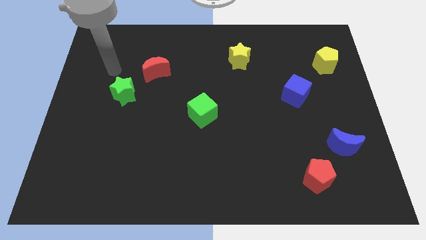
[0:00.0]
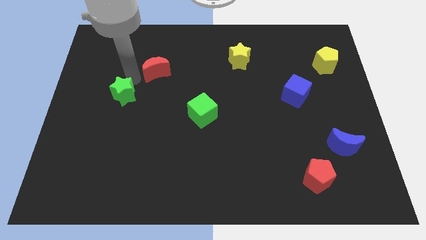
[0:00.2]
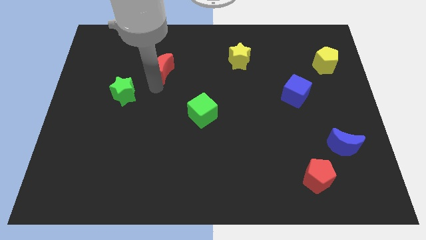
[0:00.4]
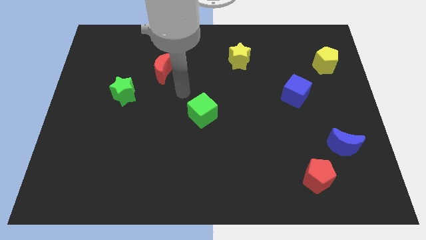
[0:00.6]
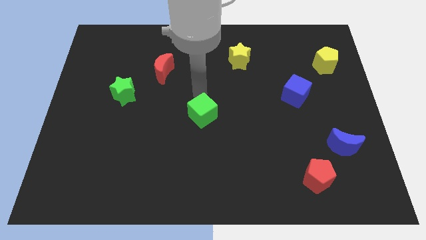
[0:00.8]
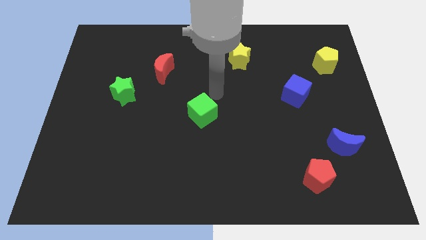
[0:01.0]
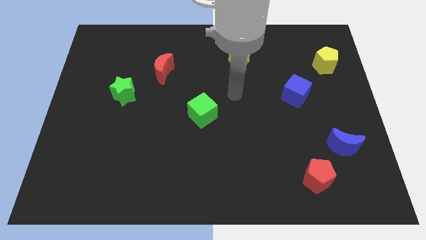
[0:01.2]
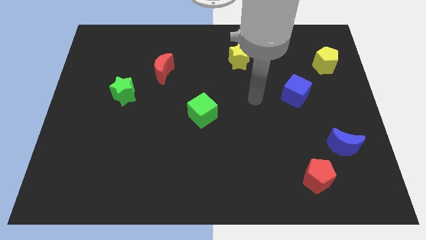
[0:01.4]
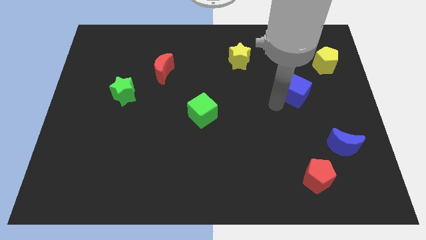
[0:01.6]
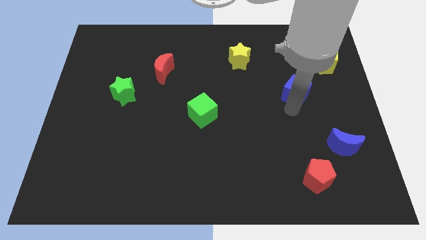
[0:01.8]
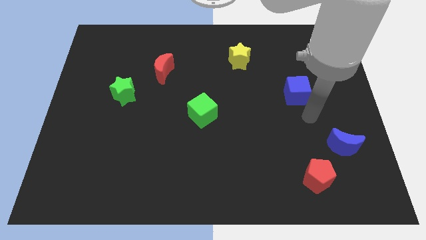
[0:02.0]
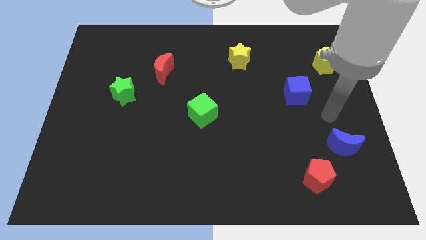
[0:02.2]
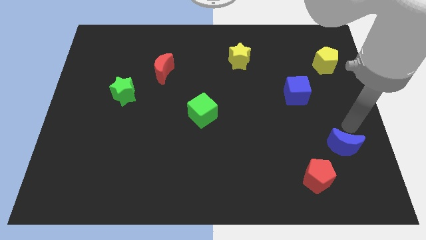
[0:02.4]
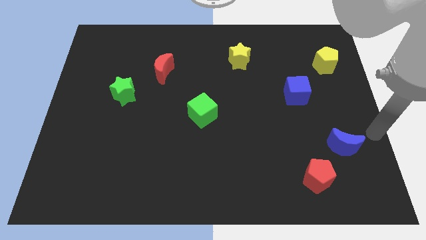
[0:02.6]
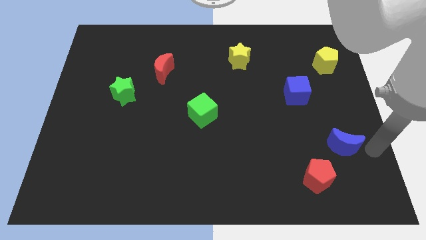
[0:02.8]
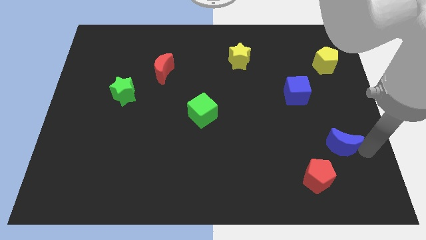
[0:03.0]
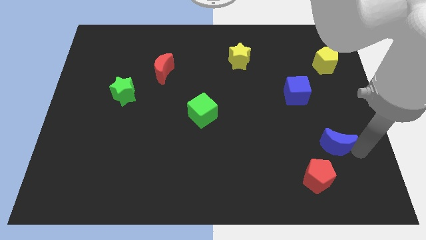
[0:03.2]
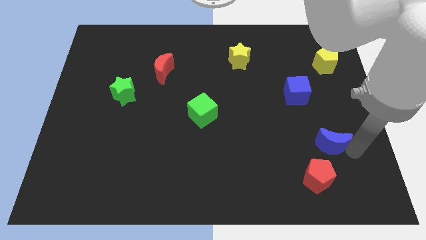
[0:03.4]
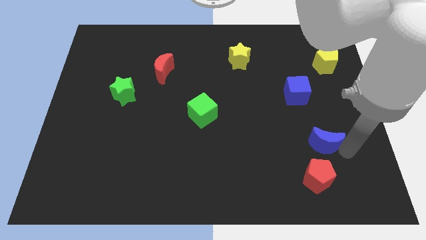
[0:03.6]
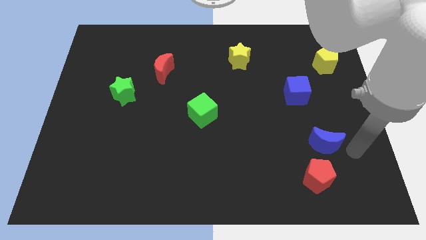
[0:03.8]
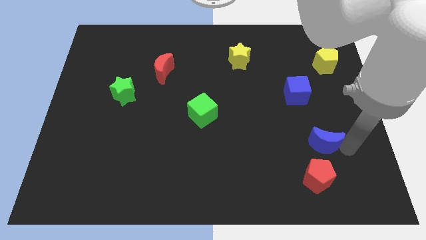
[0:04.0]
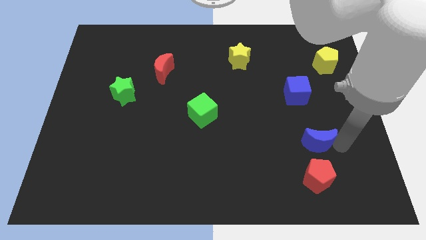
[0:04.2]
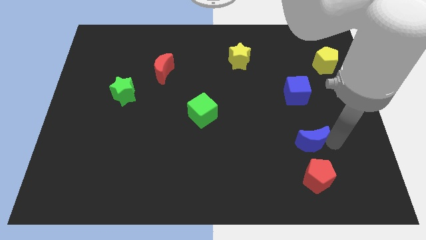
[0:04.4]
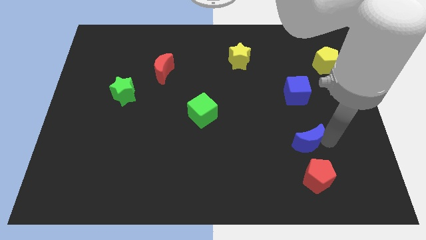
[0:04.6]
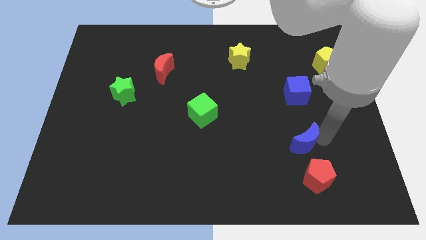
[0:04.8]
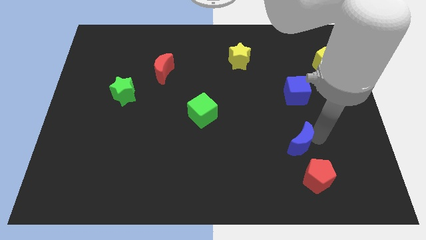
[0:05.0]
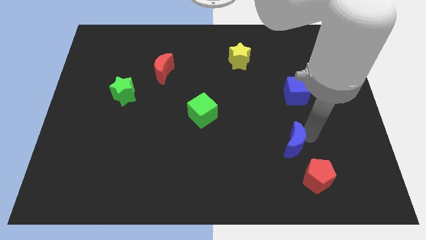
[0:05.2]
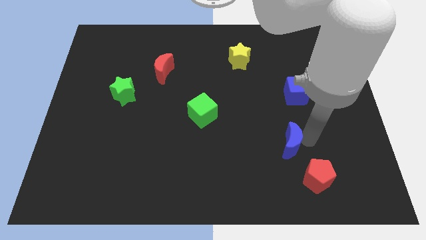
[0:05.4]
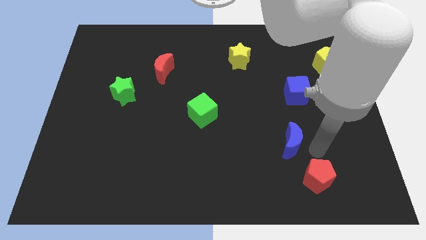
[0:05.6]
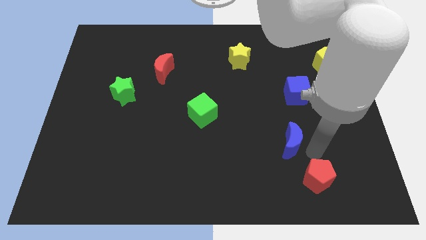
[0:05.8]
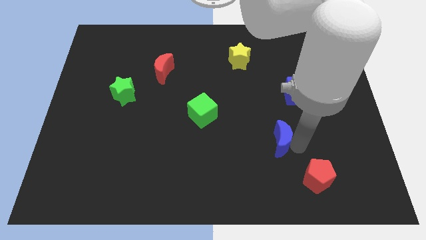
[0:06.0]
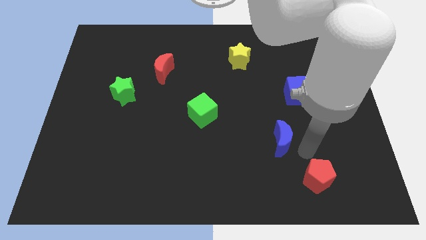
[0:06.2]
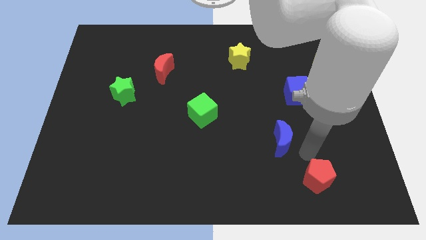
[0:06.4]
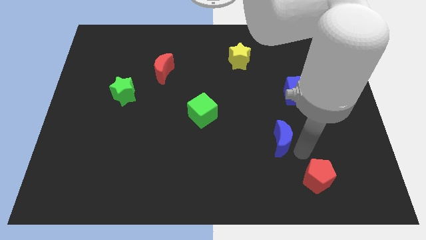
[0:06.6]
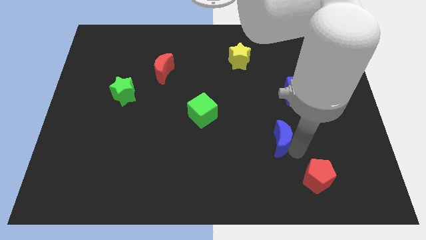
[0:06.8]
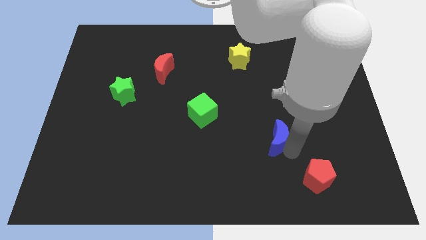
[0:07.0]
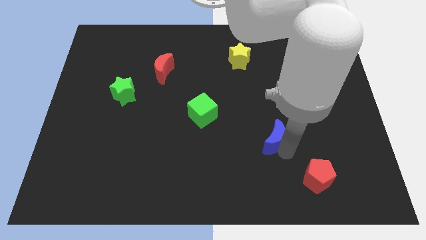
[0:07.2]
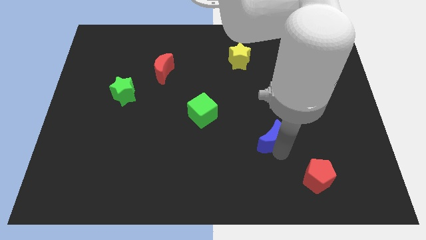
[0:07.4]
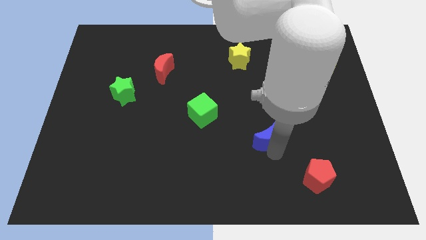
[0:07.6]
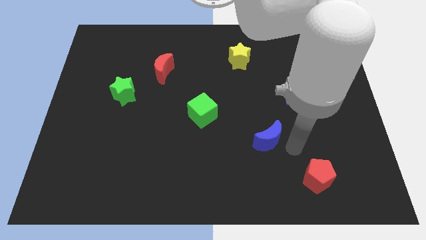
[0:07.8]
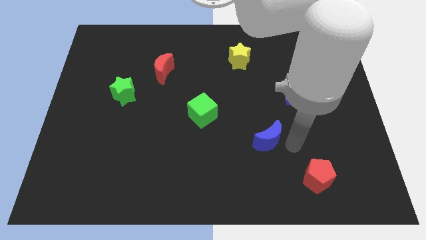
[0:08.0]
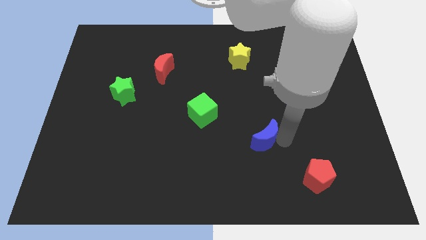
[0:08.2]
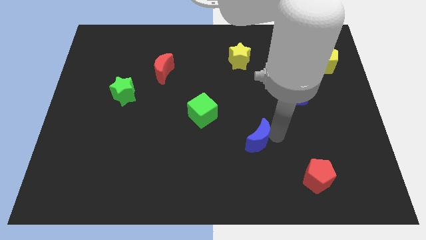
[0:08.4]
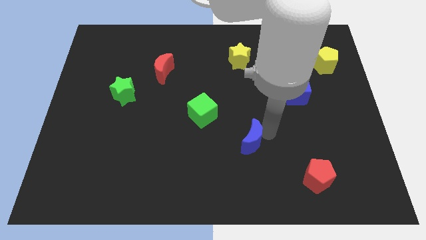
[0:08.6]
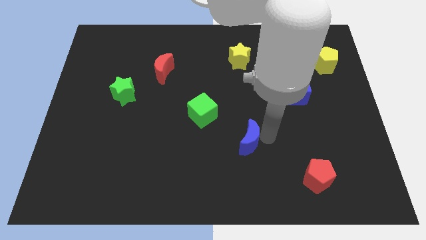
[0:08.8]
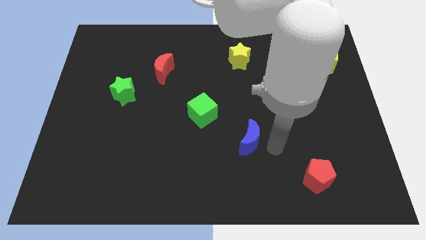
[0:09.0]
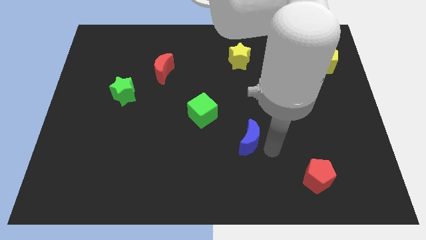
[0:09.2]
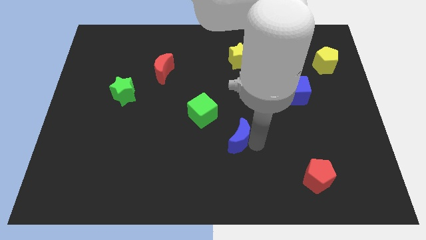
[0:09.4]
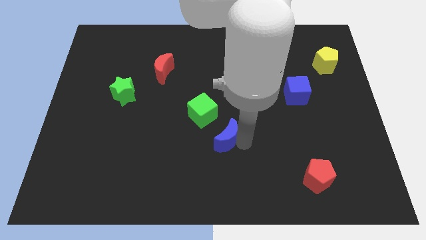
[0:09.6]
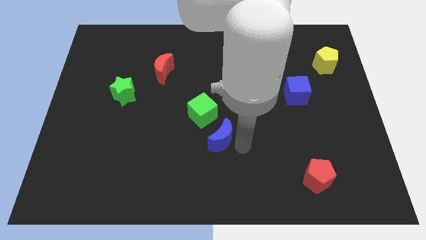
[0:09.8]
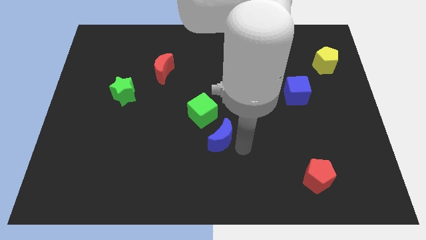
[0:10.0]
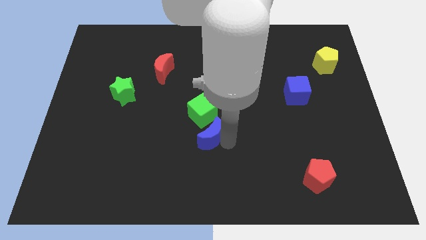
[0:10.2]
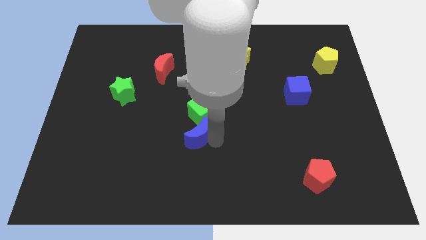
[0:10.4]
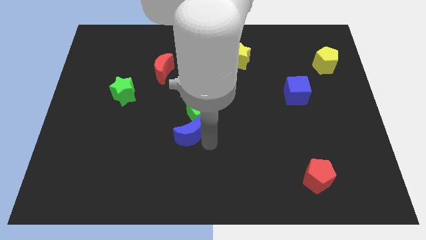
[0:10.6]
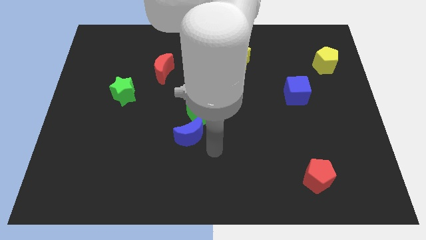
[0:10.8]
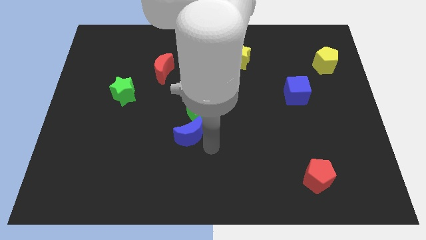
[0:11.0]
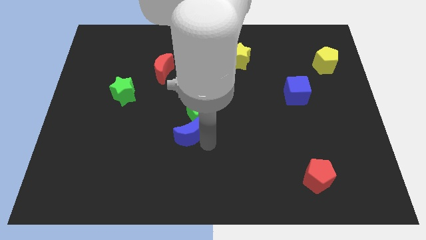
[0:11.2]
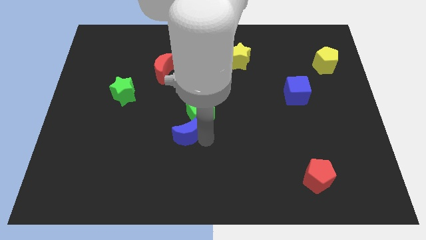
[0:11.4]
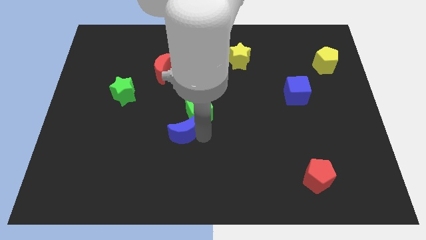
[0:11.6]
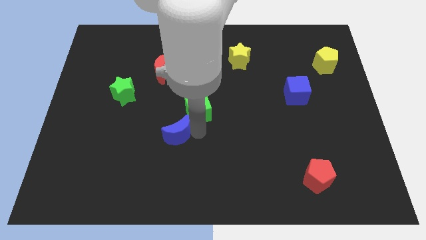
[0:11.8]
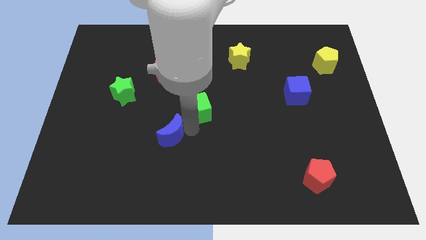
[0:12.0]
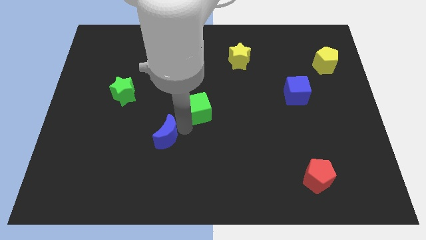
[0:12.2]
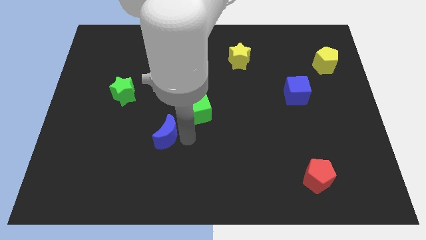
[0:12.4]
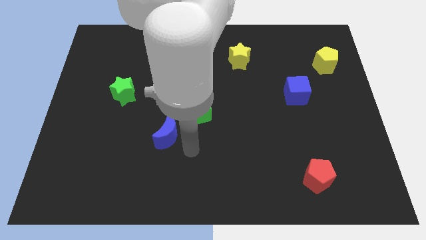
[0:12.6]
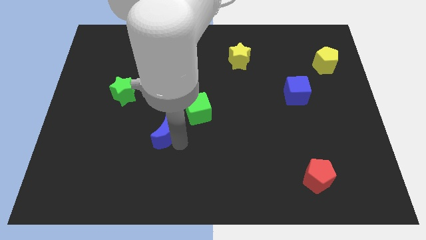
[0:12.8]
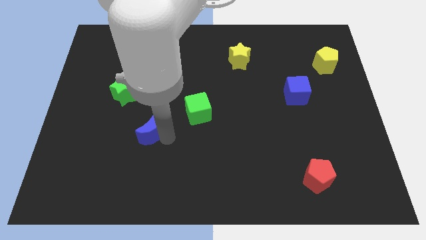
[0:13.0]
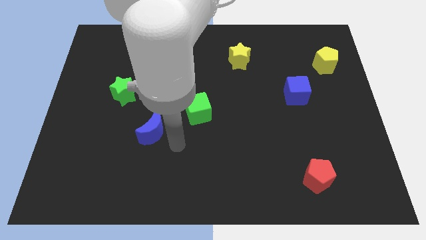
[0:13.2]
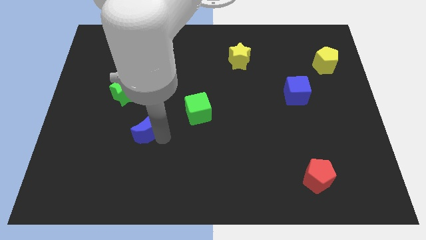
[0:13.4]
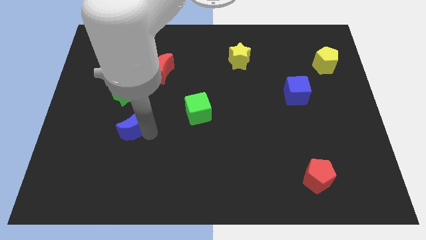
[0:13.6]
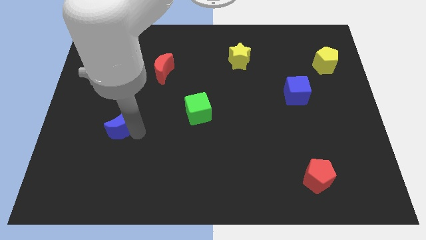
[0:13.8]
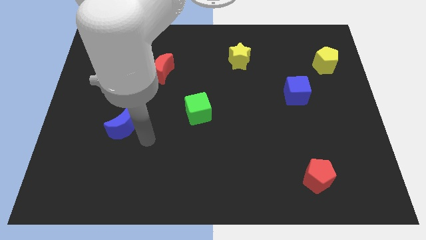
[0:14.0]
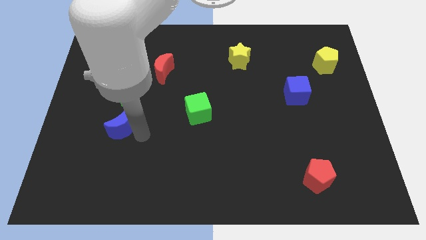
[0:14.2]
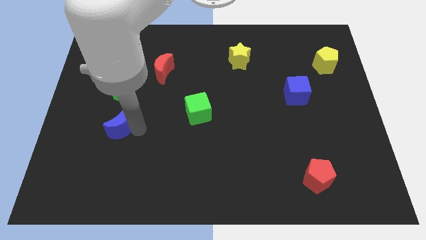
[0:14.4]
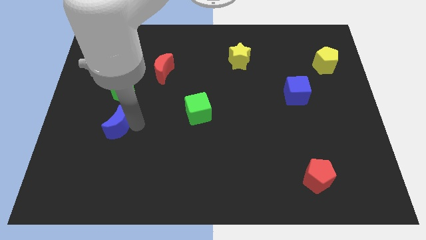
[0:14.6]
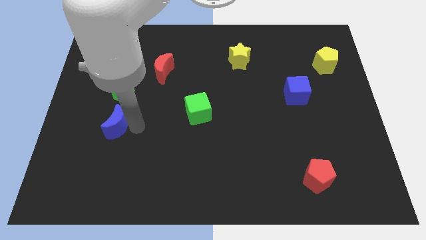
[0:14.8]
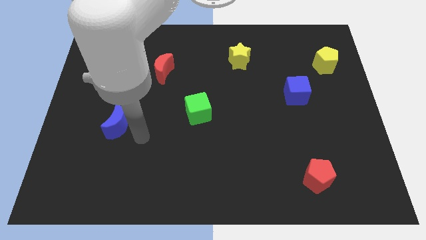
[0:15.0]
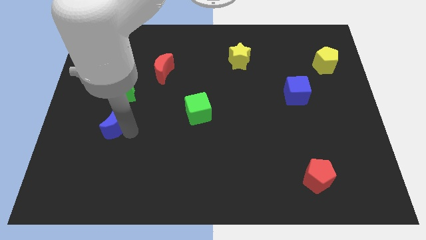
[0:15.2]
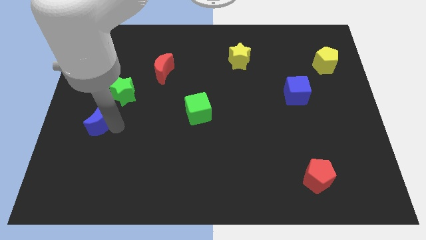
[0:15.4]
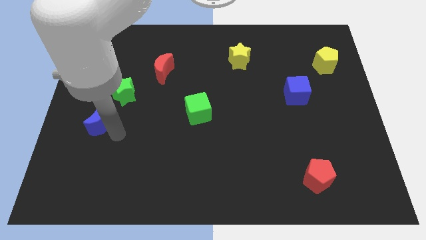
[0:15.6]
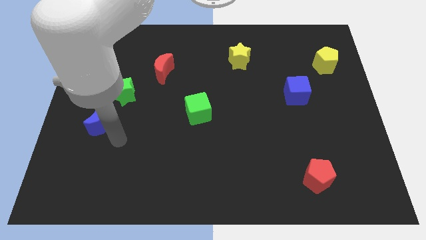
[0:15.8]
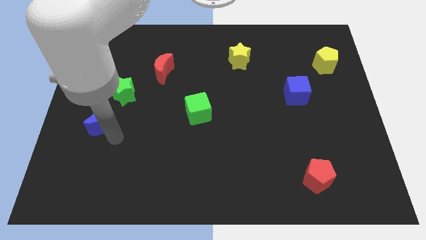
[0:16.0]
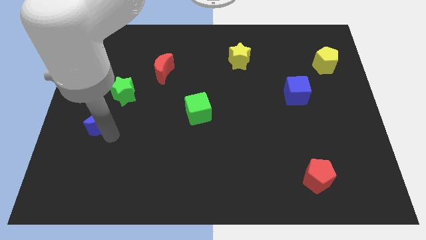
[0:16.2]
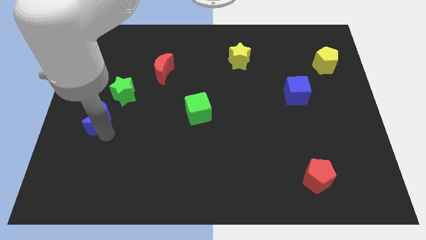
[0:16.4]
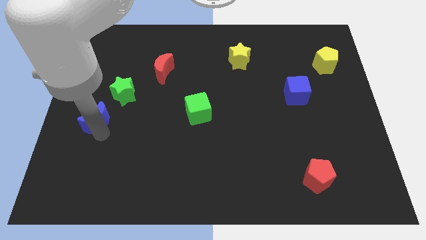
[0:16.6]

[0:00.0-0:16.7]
push the blue moon to the left side
